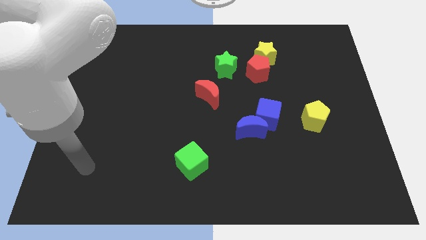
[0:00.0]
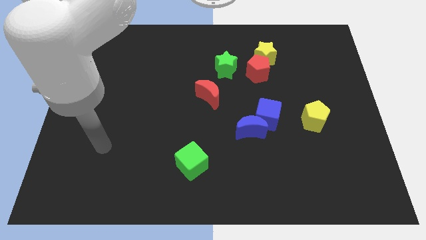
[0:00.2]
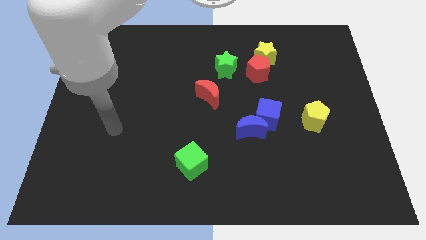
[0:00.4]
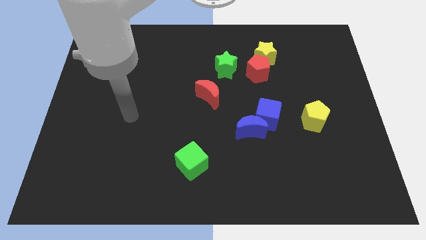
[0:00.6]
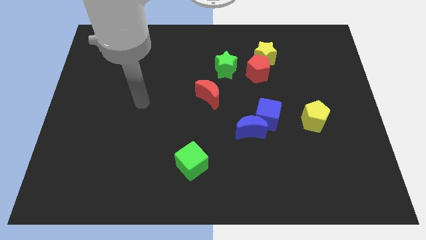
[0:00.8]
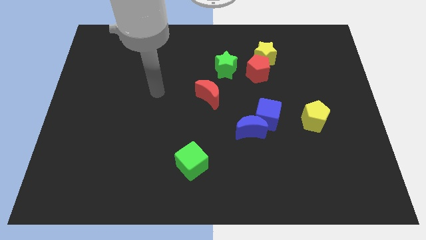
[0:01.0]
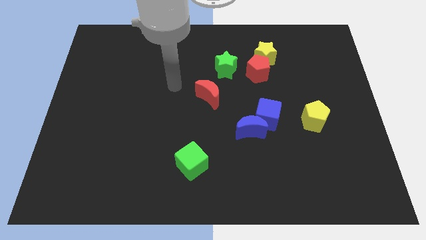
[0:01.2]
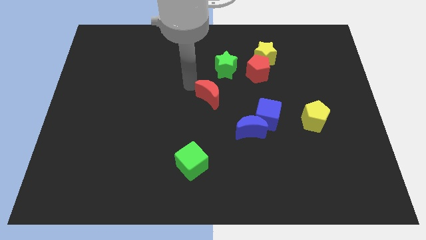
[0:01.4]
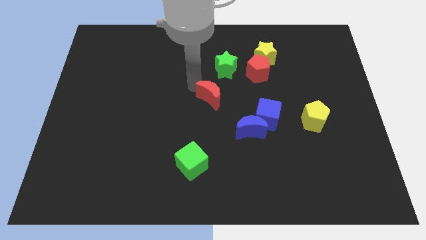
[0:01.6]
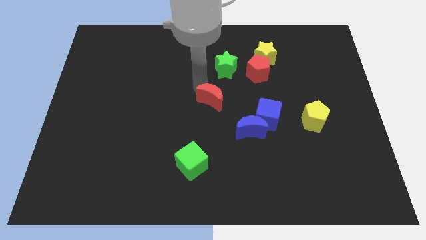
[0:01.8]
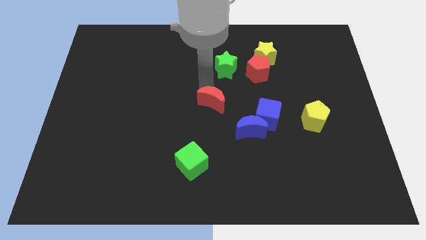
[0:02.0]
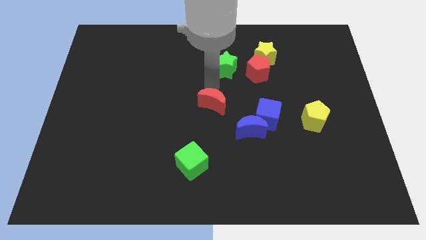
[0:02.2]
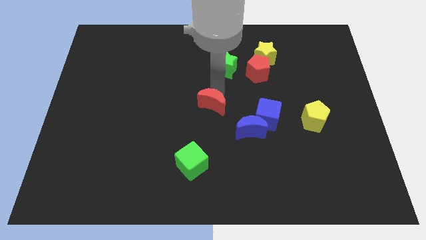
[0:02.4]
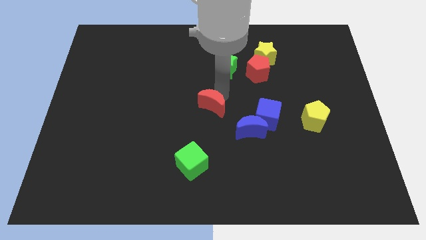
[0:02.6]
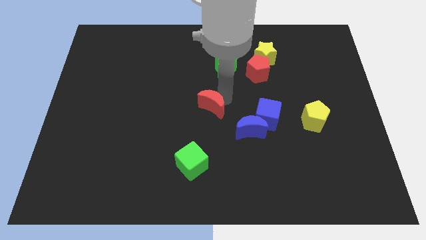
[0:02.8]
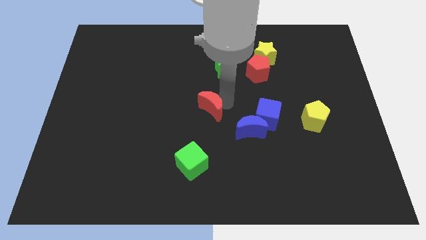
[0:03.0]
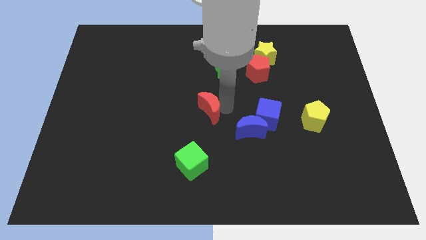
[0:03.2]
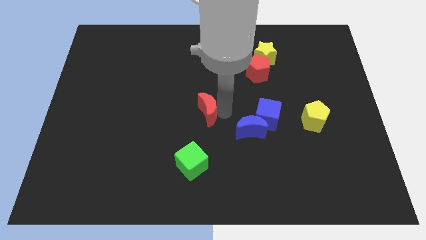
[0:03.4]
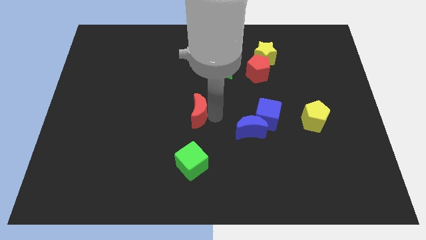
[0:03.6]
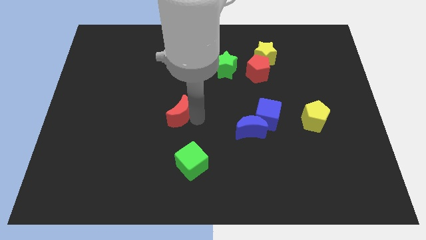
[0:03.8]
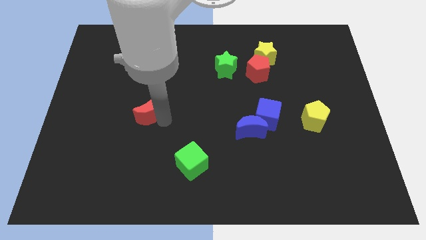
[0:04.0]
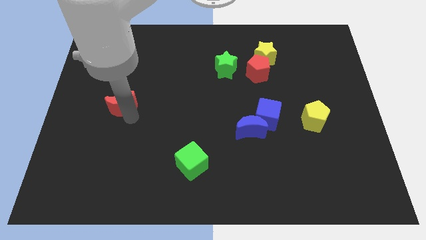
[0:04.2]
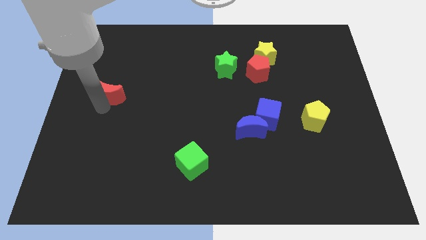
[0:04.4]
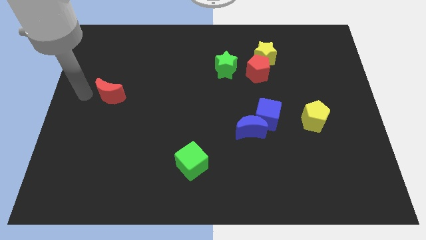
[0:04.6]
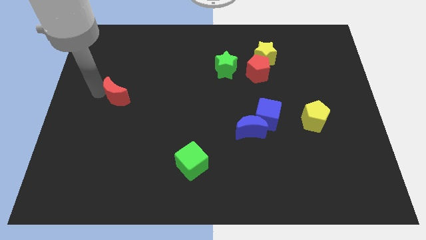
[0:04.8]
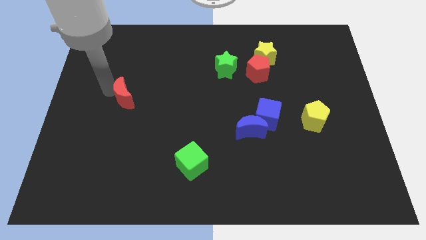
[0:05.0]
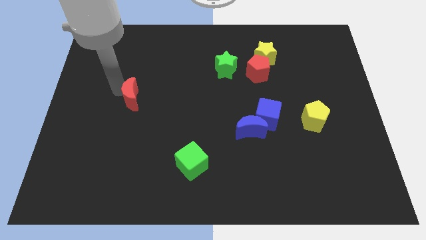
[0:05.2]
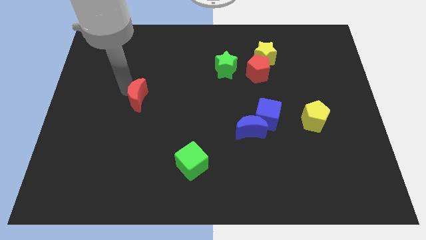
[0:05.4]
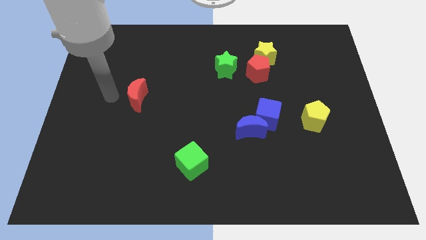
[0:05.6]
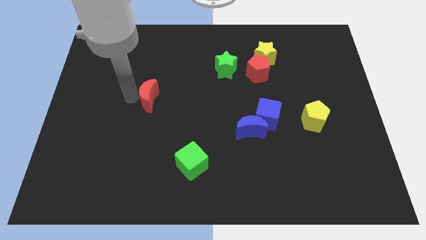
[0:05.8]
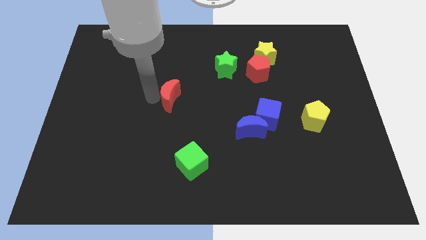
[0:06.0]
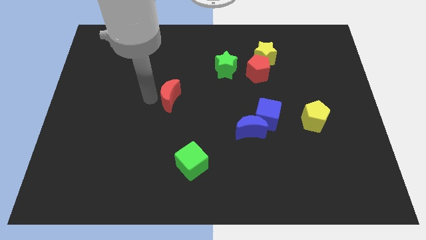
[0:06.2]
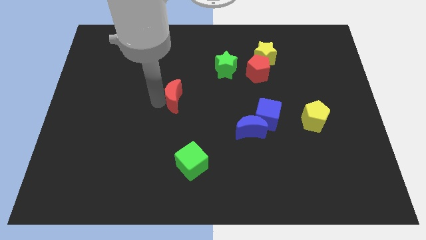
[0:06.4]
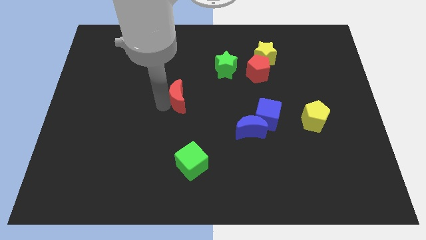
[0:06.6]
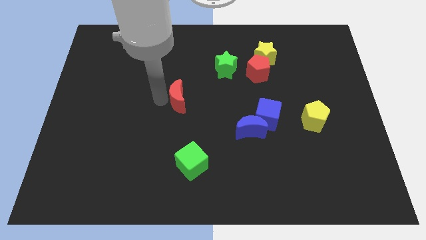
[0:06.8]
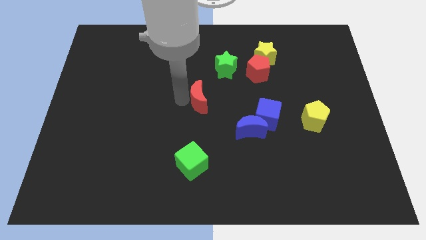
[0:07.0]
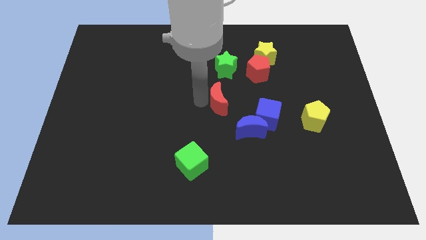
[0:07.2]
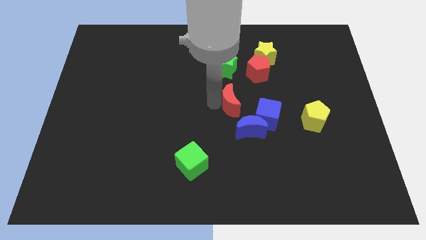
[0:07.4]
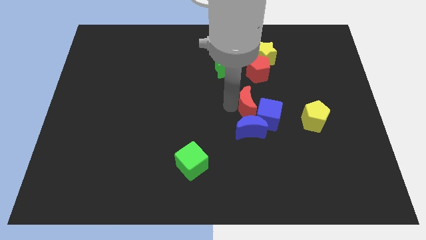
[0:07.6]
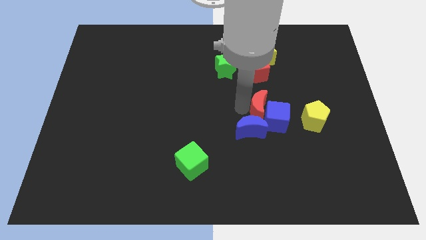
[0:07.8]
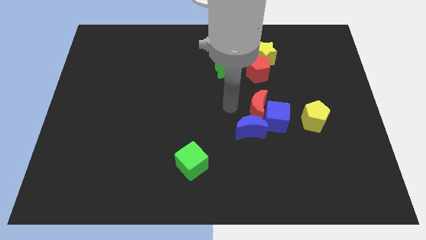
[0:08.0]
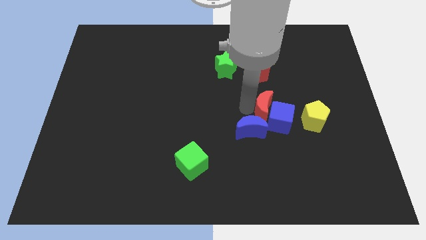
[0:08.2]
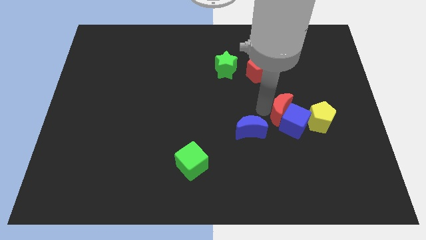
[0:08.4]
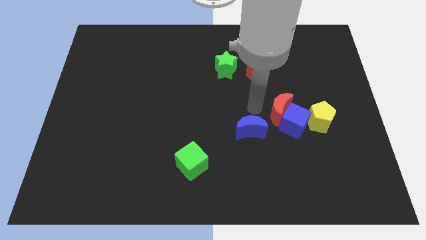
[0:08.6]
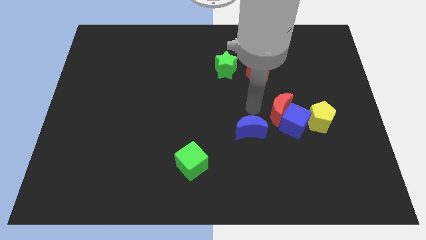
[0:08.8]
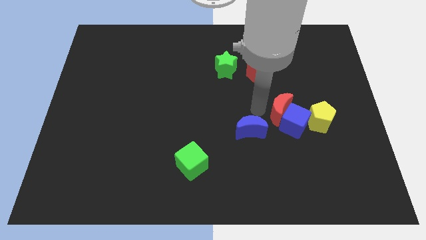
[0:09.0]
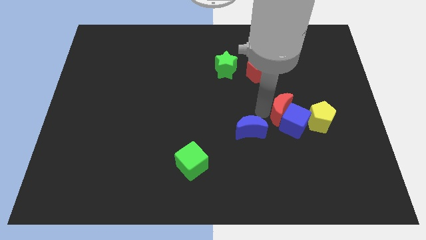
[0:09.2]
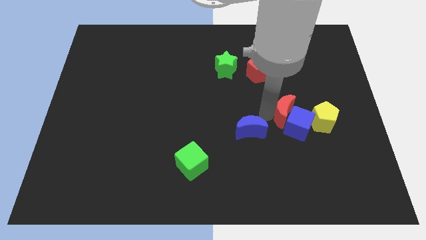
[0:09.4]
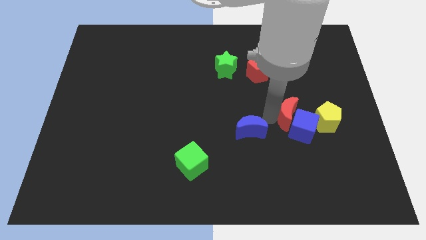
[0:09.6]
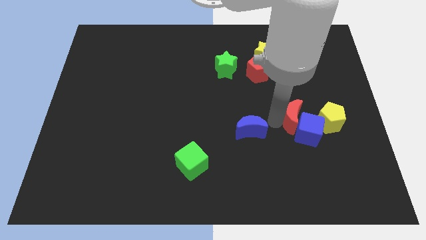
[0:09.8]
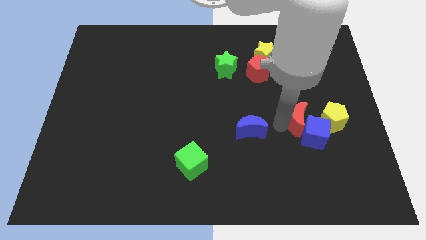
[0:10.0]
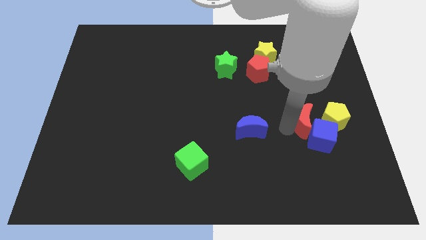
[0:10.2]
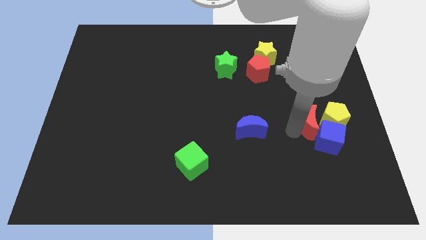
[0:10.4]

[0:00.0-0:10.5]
push the red moon towards the yellow pentagon

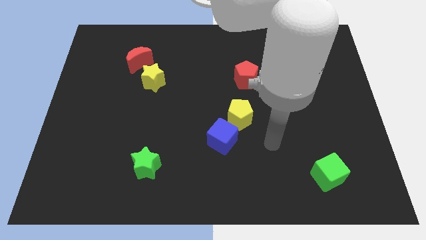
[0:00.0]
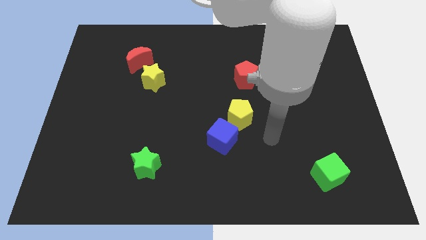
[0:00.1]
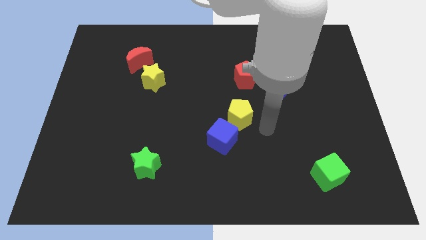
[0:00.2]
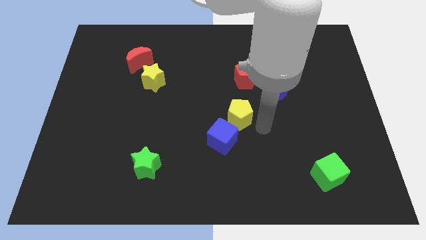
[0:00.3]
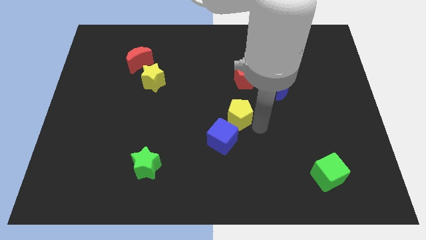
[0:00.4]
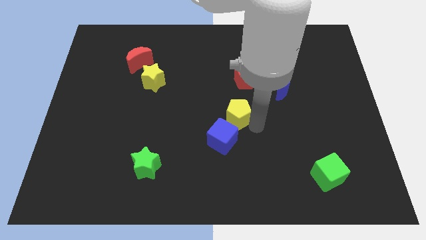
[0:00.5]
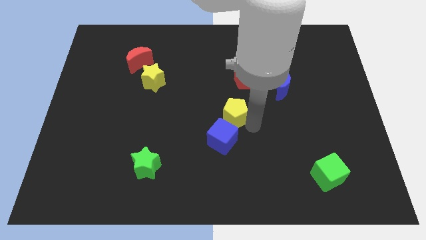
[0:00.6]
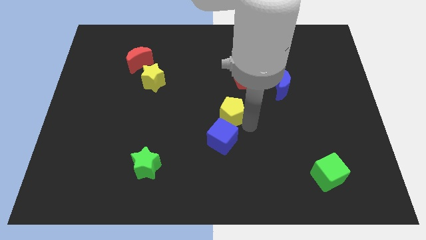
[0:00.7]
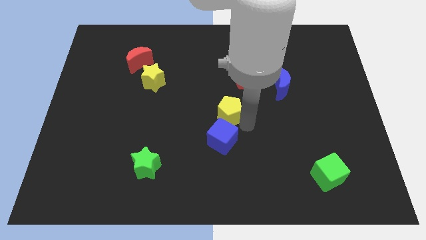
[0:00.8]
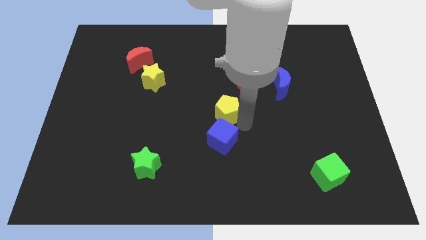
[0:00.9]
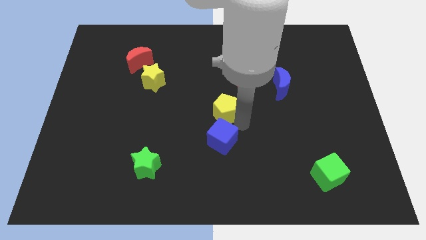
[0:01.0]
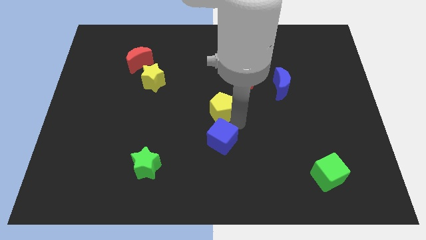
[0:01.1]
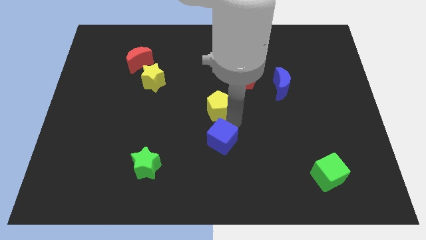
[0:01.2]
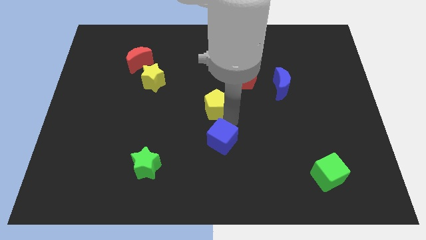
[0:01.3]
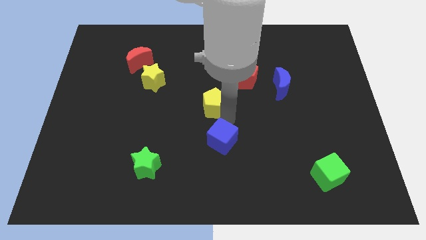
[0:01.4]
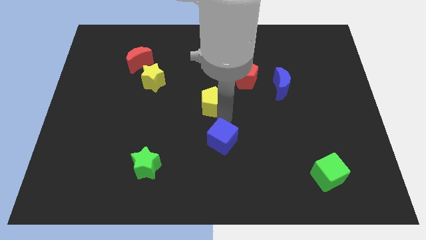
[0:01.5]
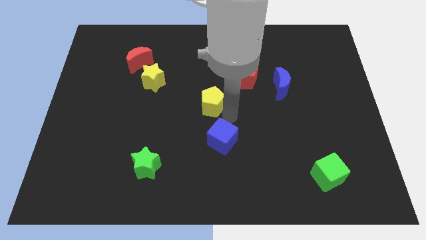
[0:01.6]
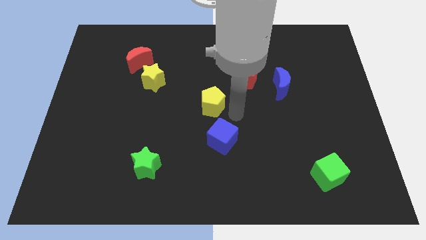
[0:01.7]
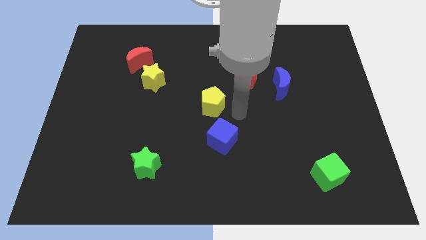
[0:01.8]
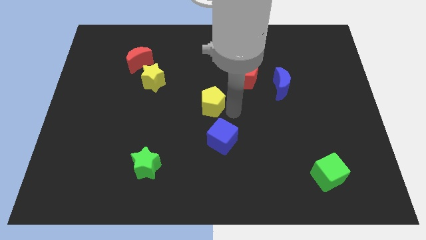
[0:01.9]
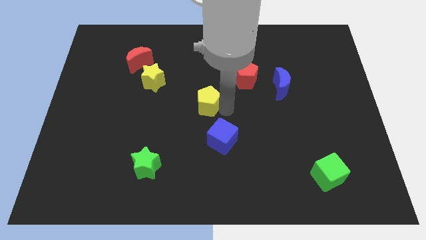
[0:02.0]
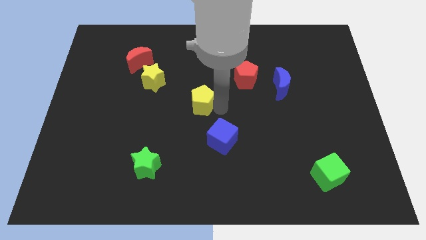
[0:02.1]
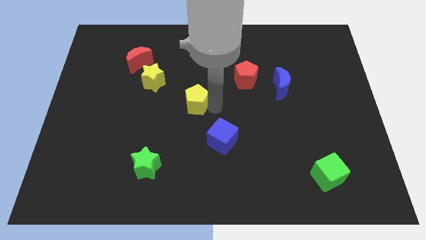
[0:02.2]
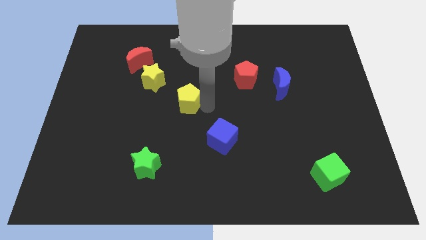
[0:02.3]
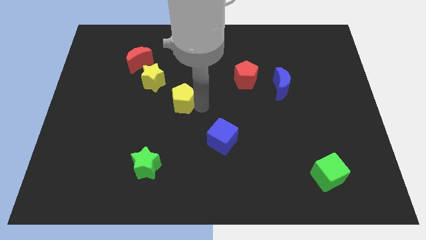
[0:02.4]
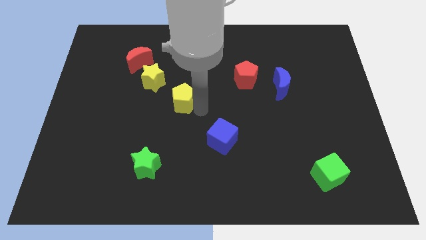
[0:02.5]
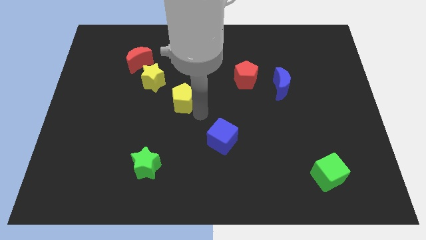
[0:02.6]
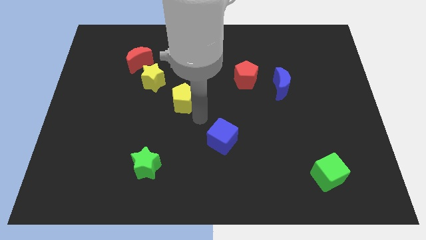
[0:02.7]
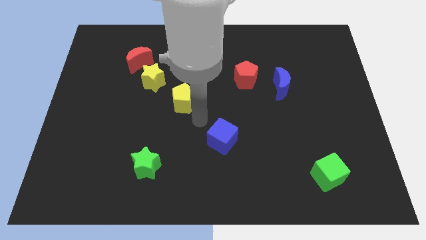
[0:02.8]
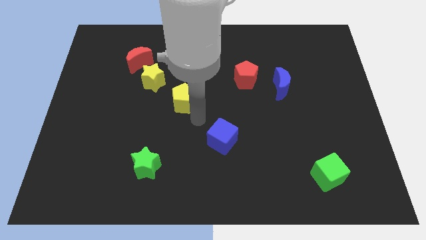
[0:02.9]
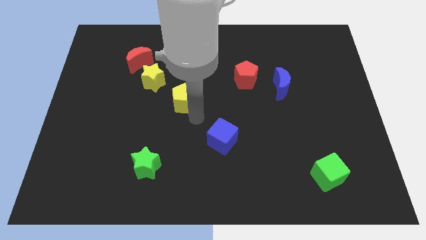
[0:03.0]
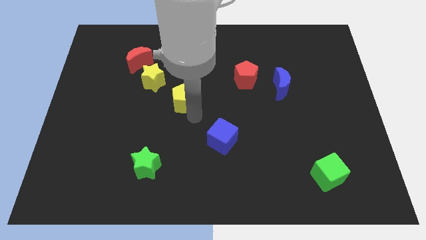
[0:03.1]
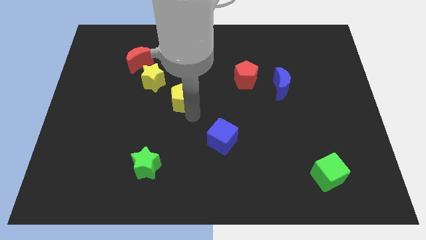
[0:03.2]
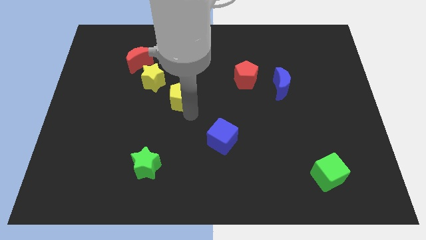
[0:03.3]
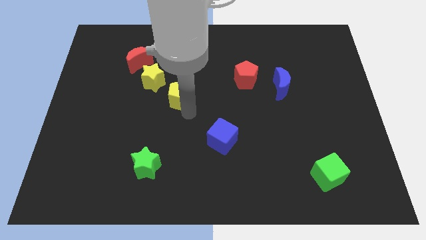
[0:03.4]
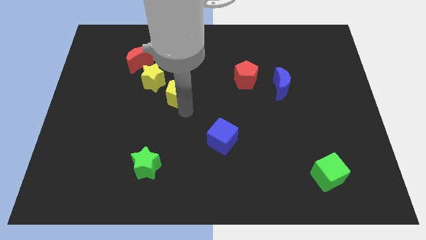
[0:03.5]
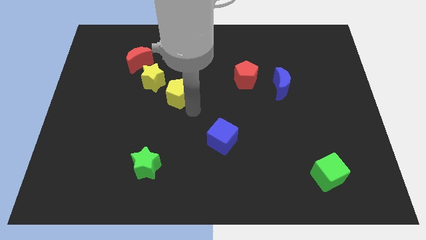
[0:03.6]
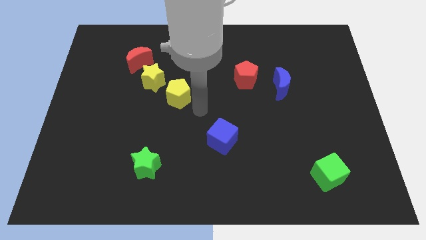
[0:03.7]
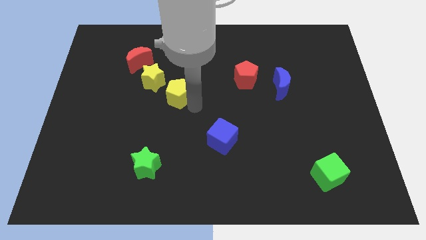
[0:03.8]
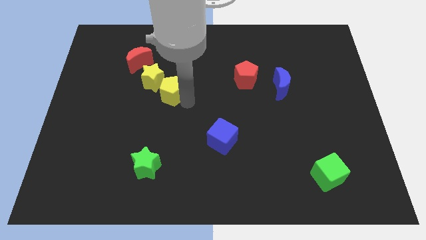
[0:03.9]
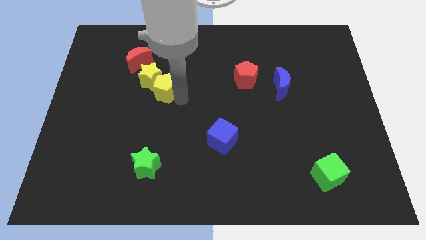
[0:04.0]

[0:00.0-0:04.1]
move the yellow pentagon to the yellow star
